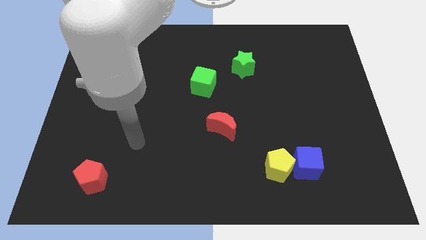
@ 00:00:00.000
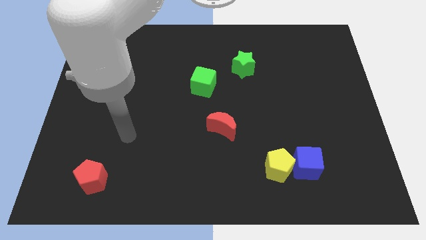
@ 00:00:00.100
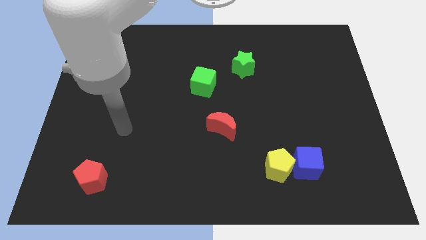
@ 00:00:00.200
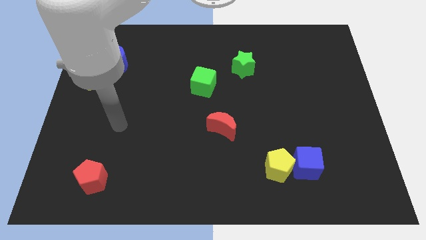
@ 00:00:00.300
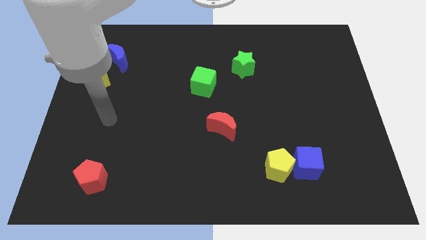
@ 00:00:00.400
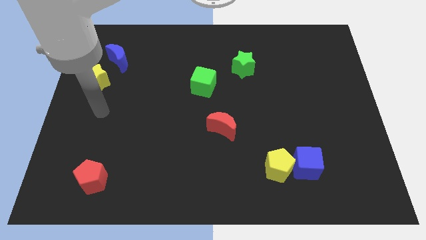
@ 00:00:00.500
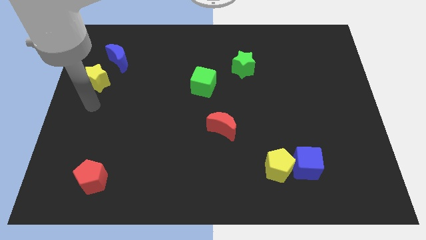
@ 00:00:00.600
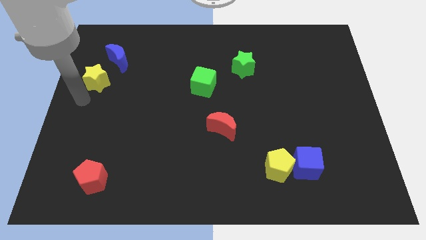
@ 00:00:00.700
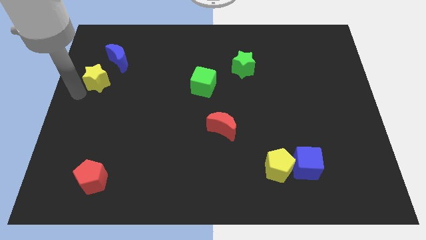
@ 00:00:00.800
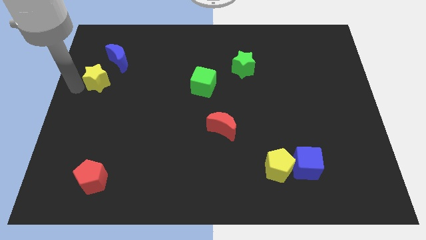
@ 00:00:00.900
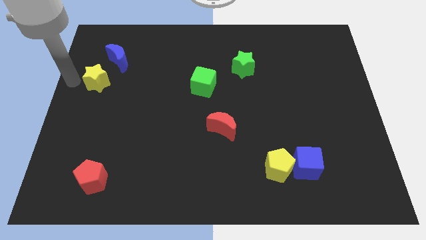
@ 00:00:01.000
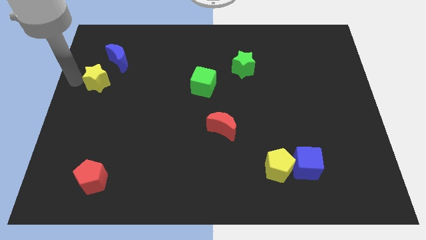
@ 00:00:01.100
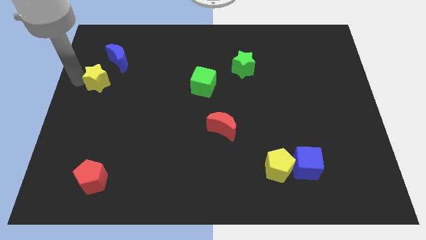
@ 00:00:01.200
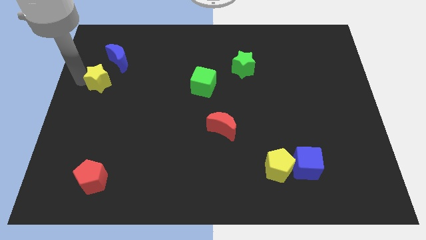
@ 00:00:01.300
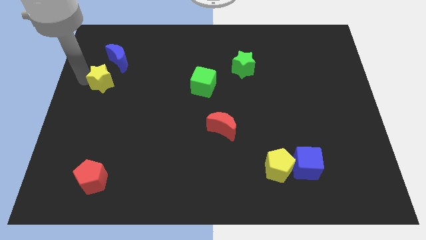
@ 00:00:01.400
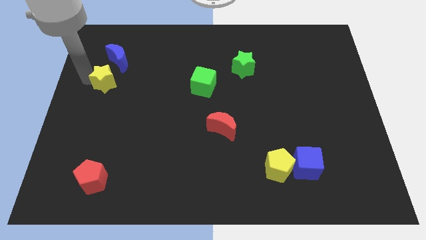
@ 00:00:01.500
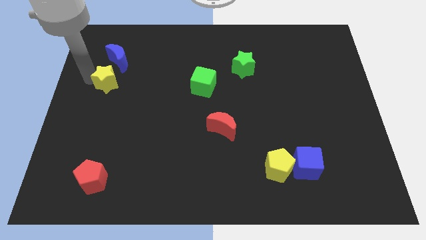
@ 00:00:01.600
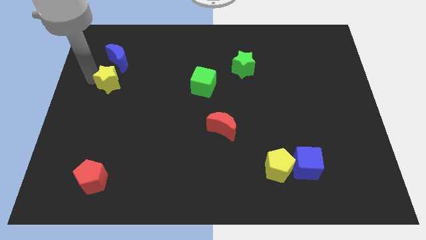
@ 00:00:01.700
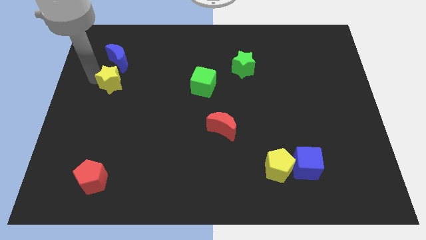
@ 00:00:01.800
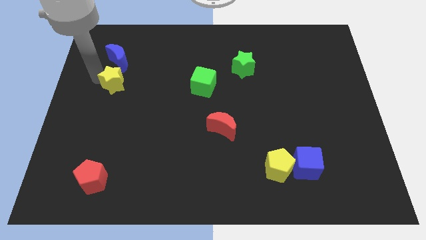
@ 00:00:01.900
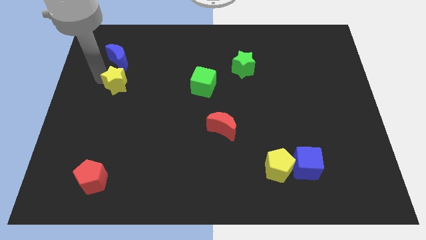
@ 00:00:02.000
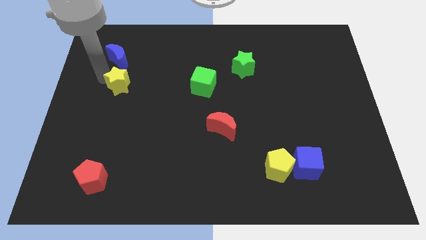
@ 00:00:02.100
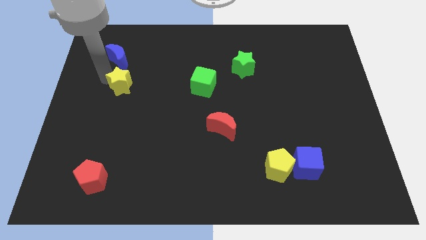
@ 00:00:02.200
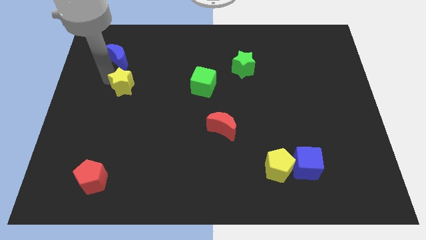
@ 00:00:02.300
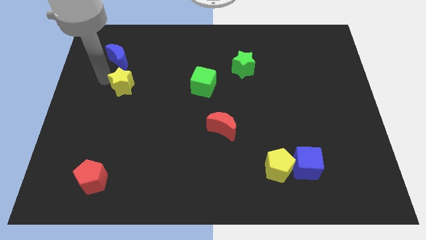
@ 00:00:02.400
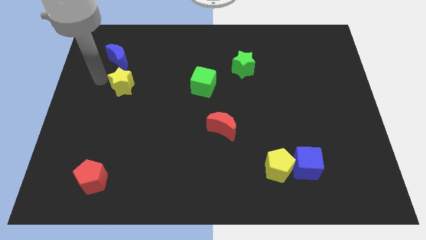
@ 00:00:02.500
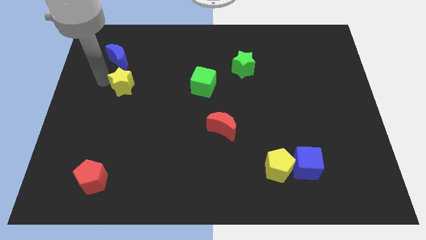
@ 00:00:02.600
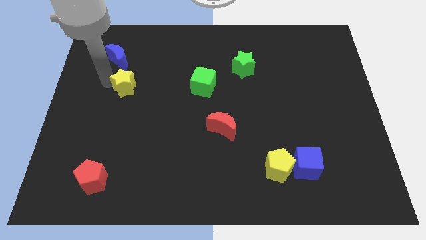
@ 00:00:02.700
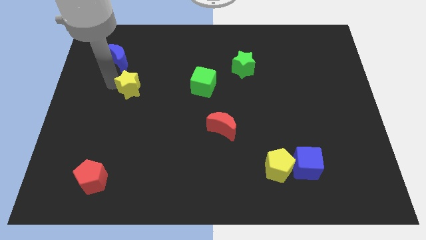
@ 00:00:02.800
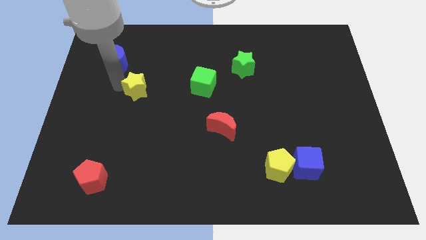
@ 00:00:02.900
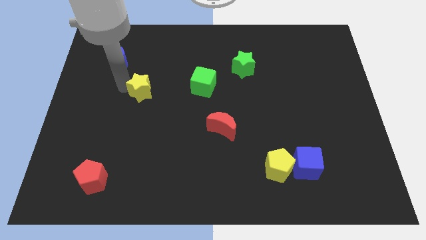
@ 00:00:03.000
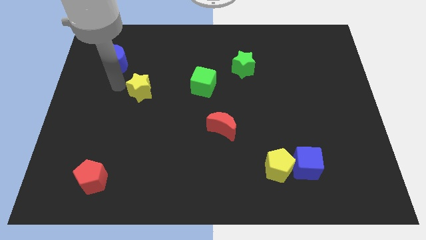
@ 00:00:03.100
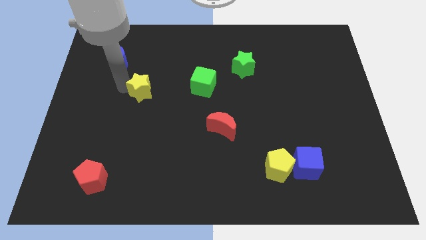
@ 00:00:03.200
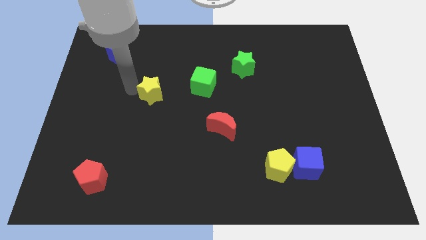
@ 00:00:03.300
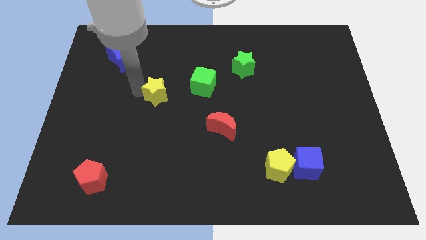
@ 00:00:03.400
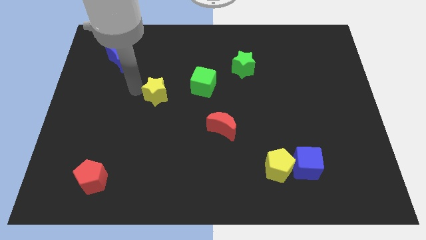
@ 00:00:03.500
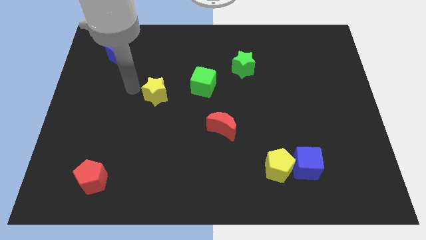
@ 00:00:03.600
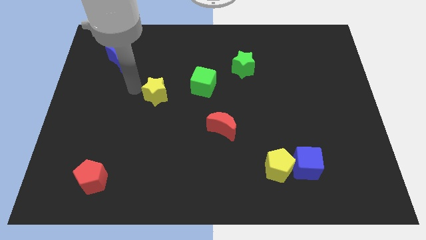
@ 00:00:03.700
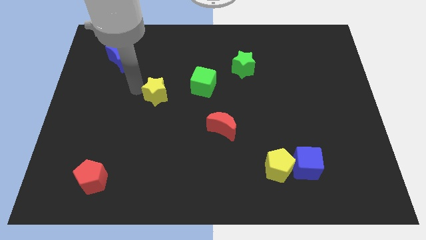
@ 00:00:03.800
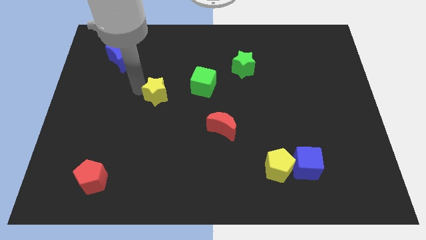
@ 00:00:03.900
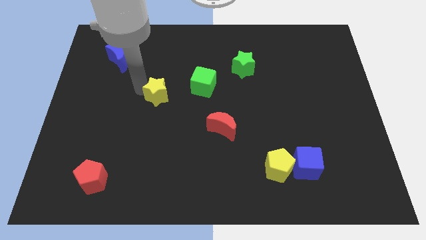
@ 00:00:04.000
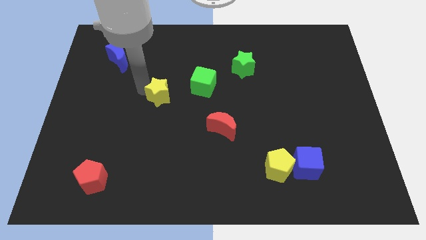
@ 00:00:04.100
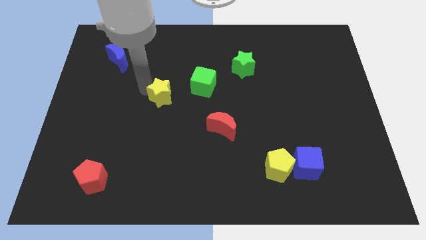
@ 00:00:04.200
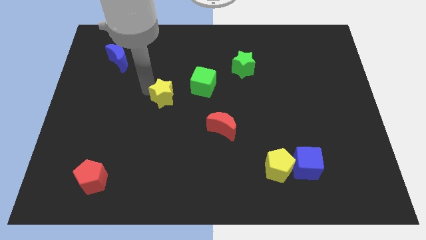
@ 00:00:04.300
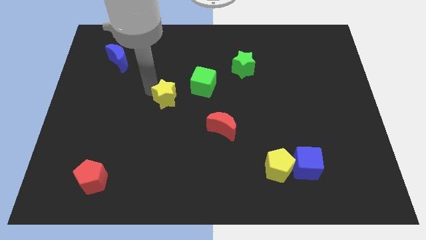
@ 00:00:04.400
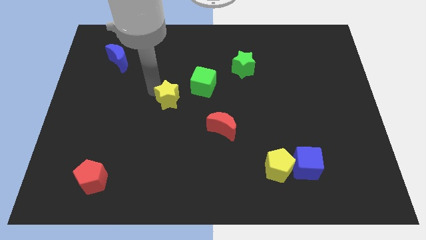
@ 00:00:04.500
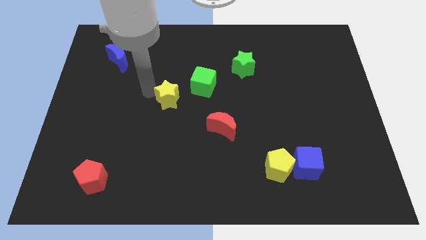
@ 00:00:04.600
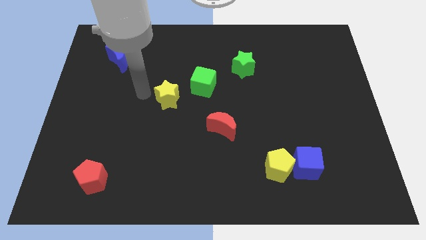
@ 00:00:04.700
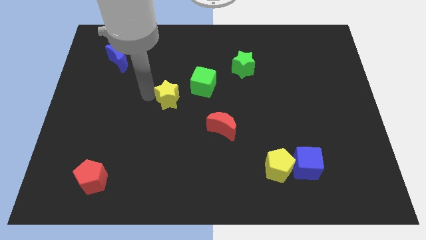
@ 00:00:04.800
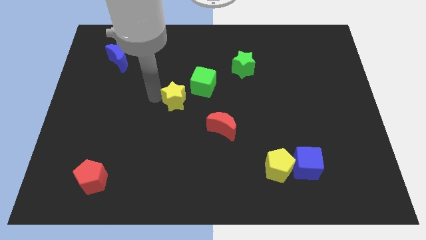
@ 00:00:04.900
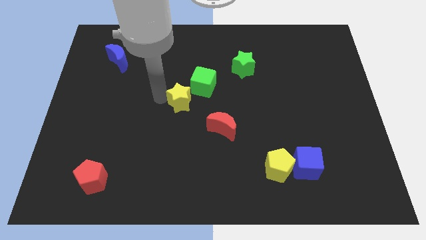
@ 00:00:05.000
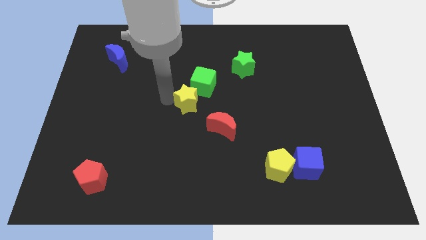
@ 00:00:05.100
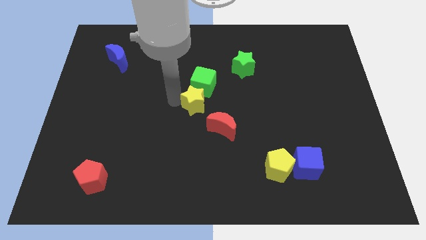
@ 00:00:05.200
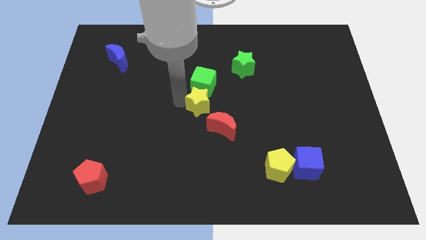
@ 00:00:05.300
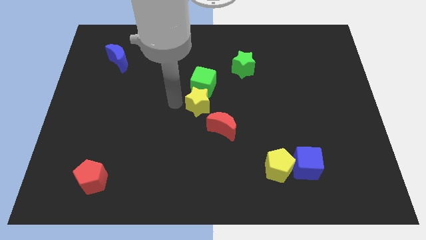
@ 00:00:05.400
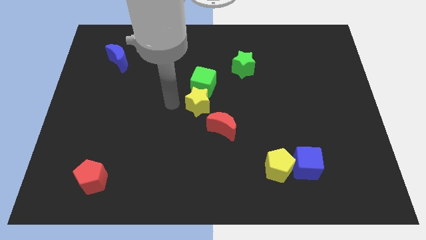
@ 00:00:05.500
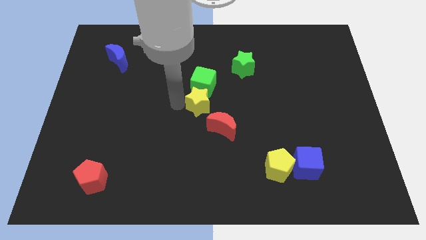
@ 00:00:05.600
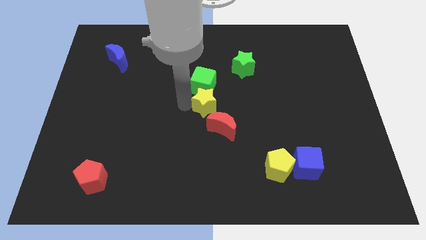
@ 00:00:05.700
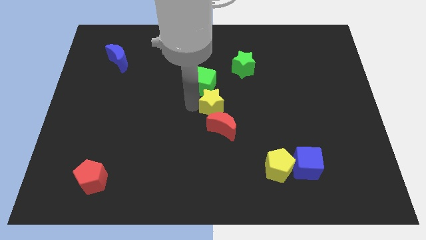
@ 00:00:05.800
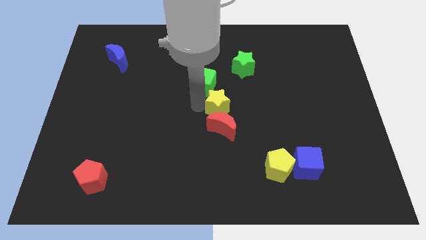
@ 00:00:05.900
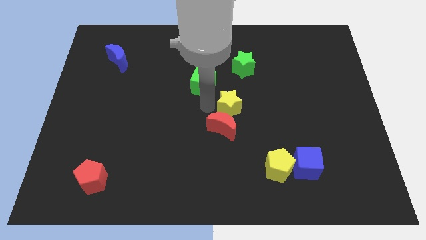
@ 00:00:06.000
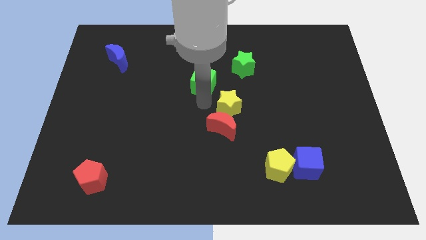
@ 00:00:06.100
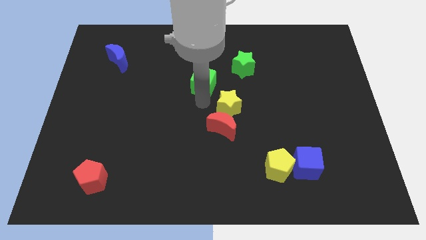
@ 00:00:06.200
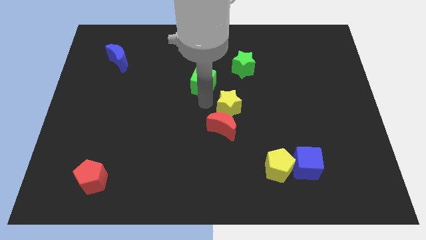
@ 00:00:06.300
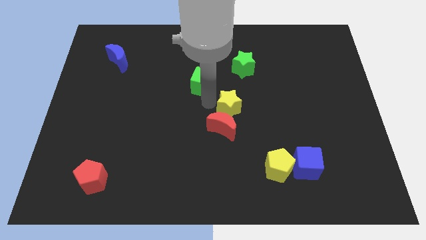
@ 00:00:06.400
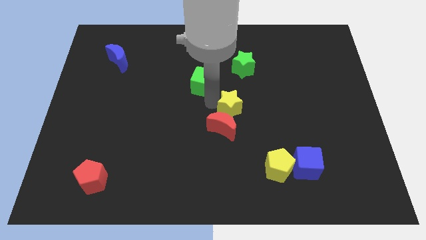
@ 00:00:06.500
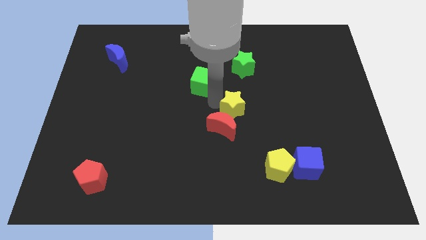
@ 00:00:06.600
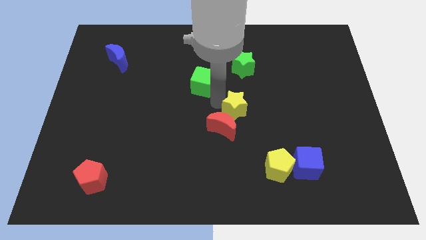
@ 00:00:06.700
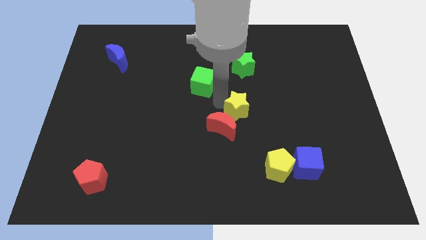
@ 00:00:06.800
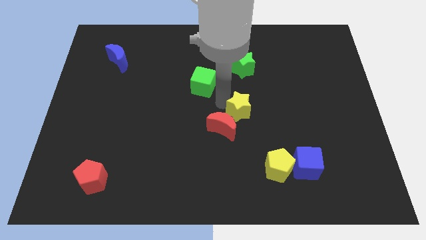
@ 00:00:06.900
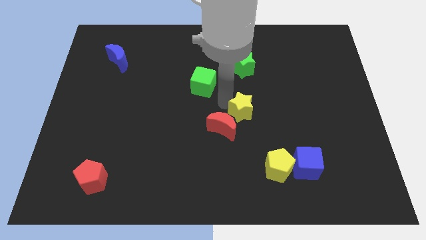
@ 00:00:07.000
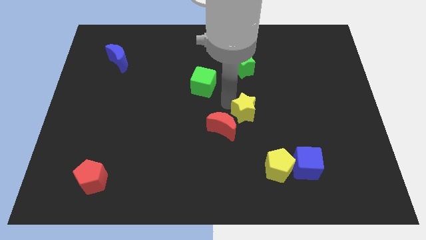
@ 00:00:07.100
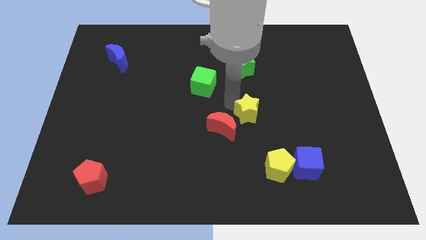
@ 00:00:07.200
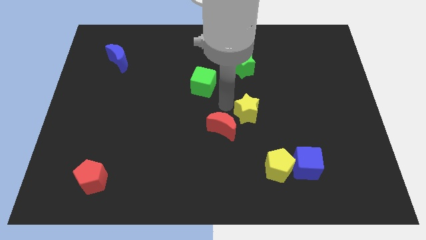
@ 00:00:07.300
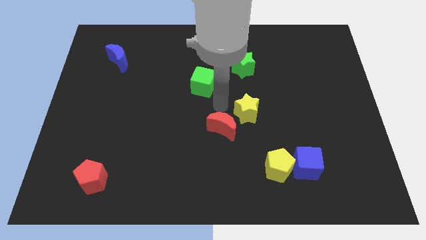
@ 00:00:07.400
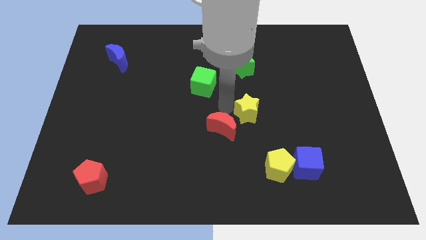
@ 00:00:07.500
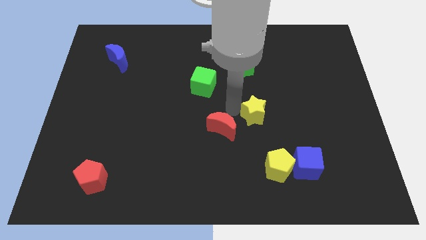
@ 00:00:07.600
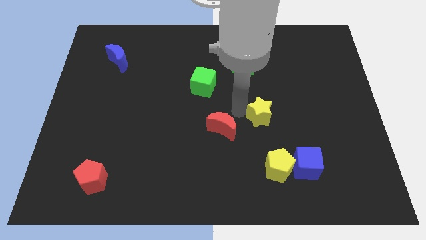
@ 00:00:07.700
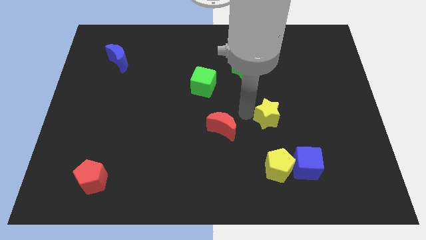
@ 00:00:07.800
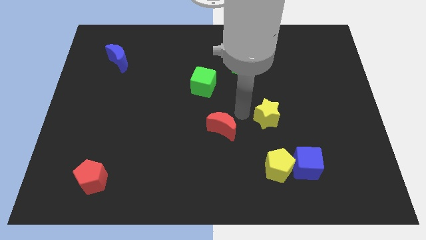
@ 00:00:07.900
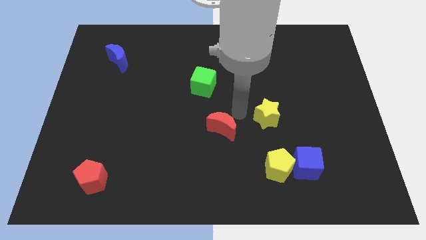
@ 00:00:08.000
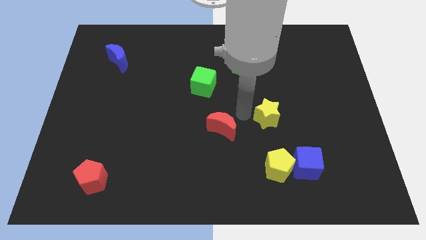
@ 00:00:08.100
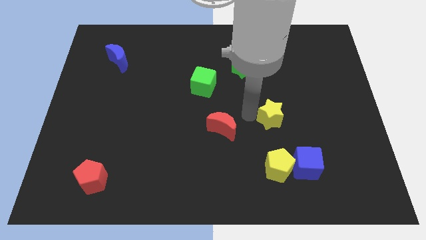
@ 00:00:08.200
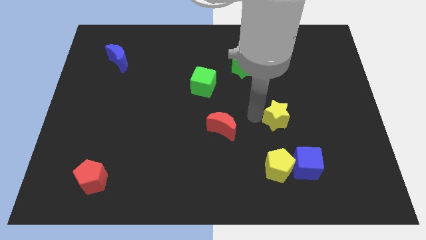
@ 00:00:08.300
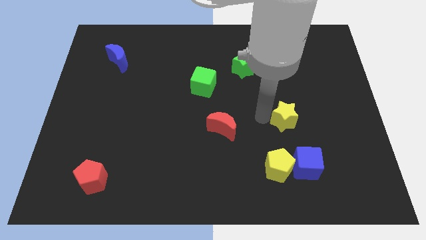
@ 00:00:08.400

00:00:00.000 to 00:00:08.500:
push the yellow star above the blue cube
